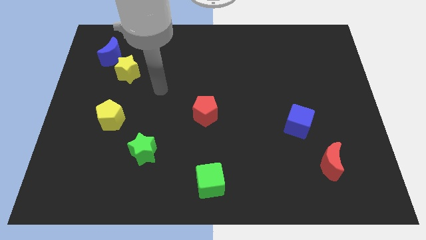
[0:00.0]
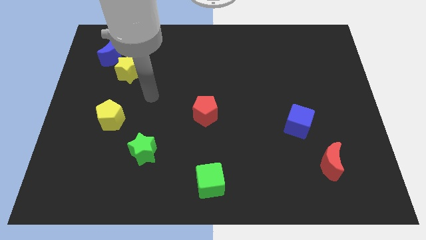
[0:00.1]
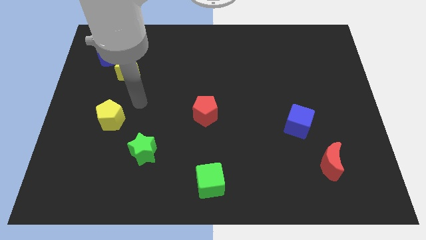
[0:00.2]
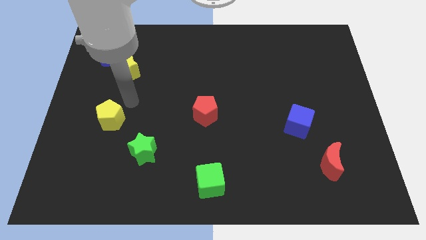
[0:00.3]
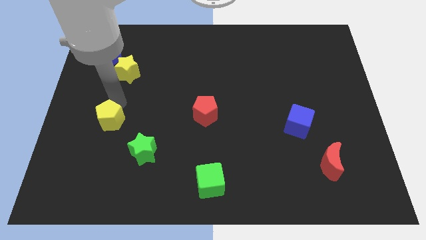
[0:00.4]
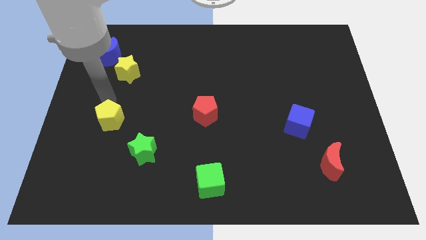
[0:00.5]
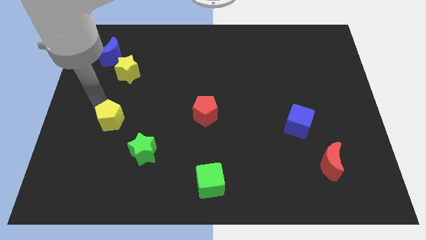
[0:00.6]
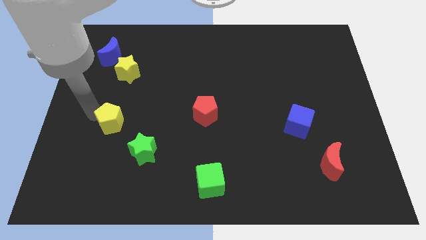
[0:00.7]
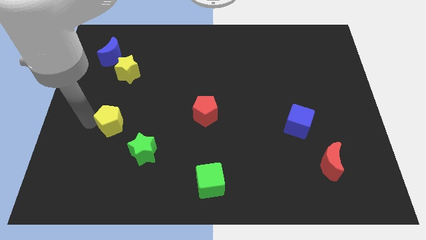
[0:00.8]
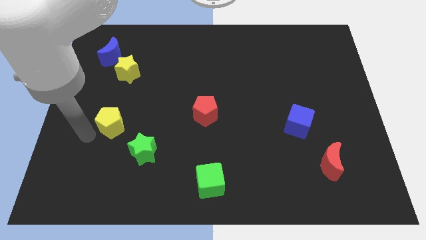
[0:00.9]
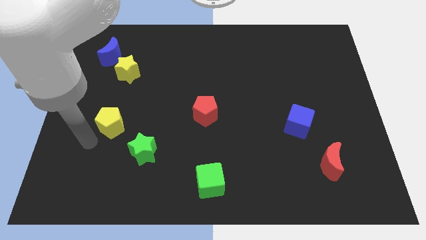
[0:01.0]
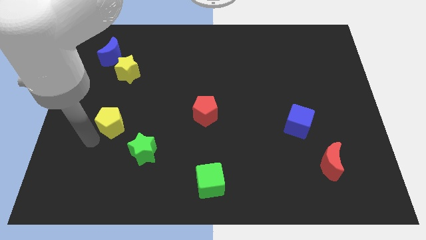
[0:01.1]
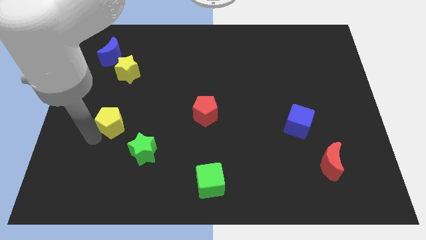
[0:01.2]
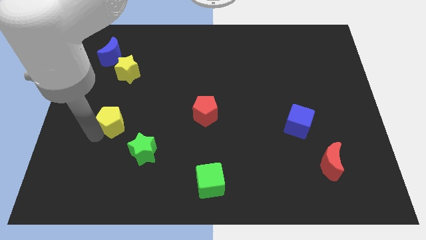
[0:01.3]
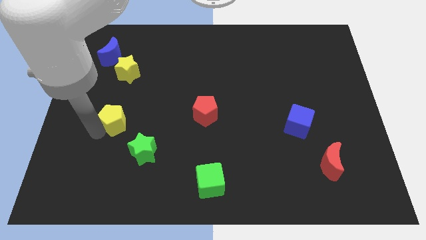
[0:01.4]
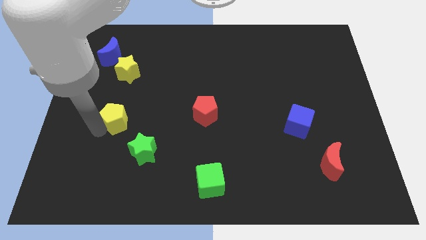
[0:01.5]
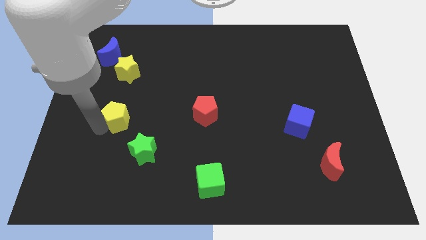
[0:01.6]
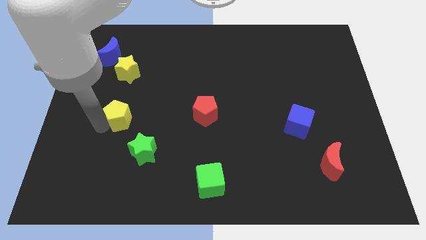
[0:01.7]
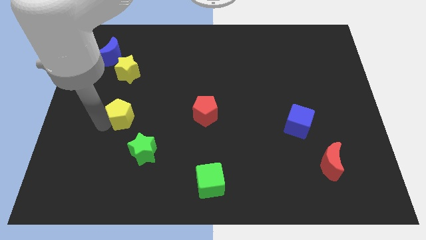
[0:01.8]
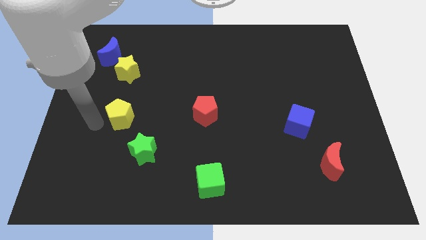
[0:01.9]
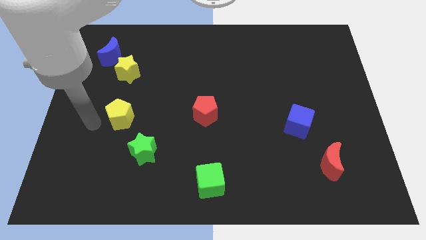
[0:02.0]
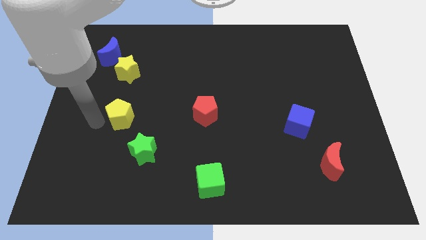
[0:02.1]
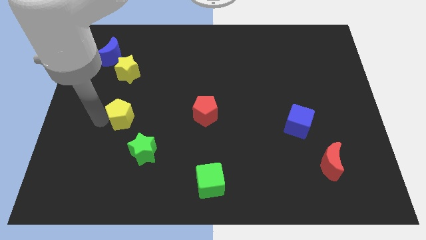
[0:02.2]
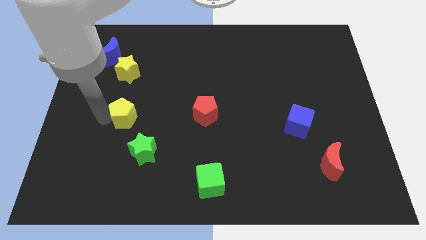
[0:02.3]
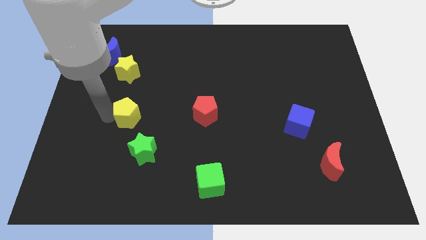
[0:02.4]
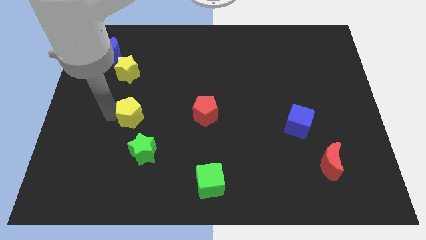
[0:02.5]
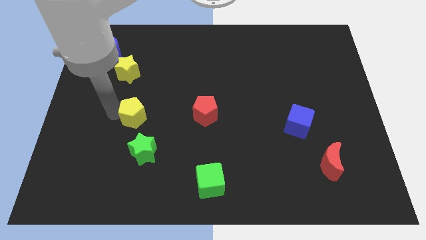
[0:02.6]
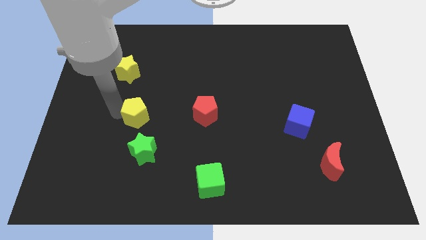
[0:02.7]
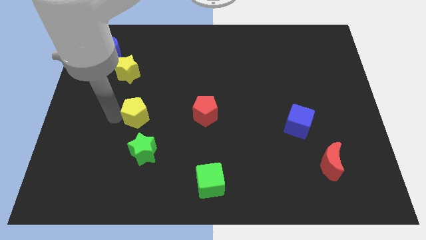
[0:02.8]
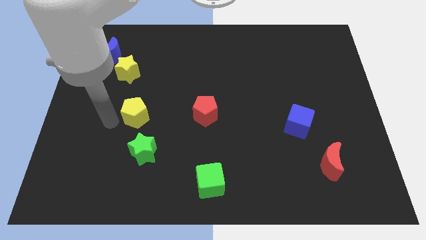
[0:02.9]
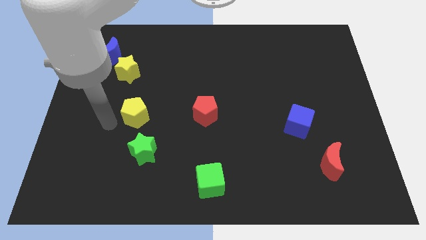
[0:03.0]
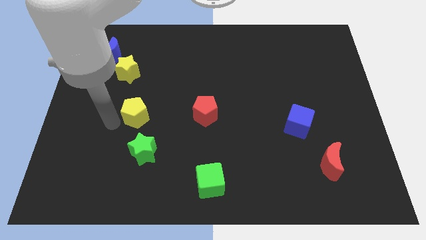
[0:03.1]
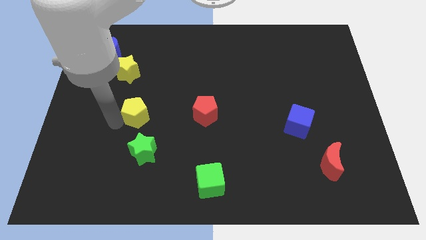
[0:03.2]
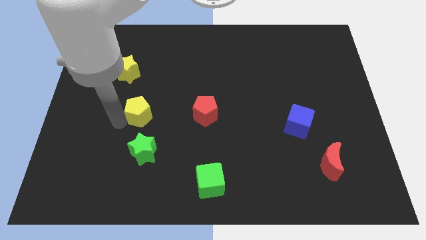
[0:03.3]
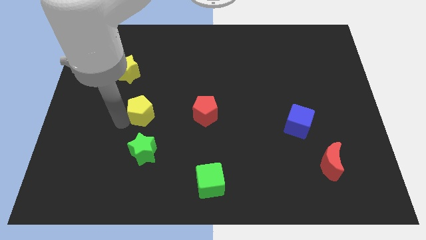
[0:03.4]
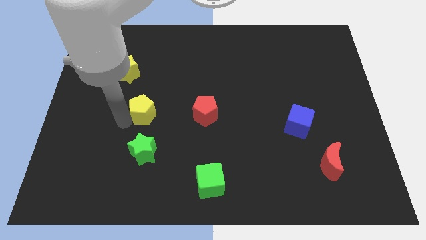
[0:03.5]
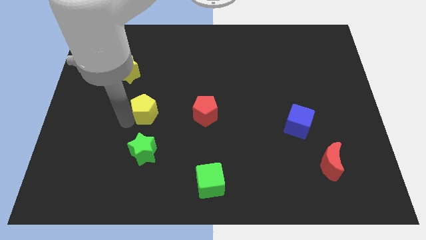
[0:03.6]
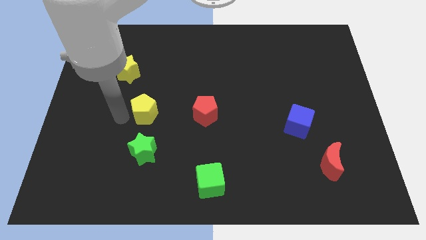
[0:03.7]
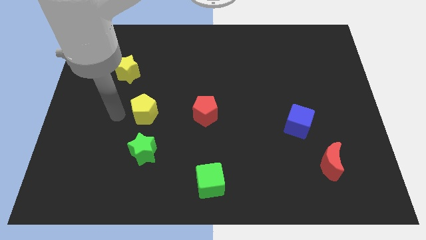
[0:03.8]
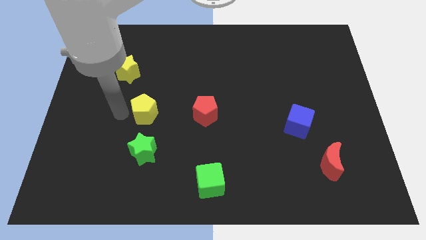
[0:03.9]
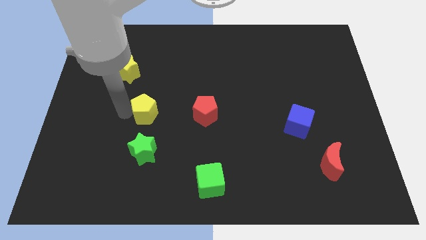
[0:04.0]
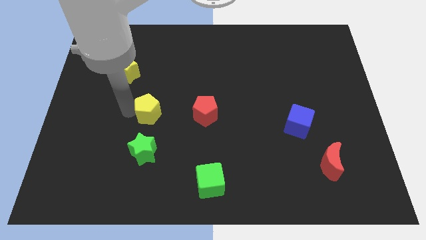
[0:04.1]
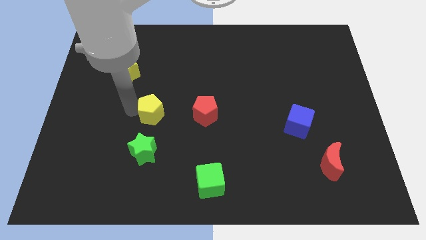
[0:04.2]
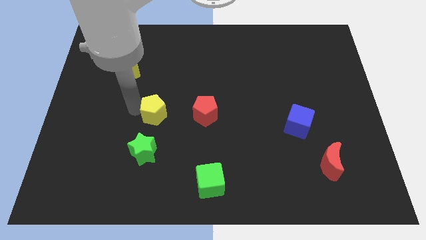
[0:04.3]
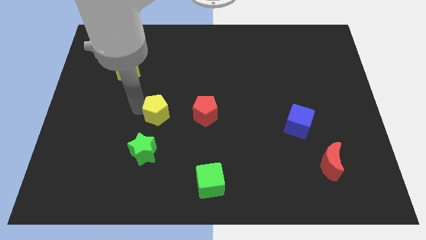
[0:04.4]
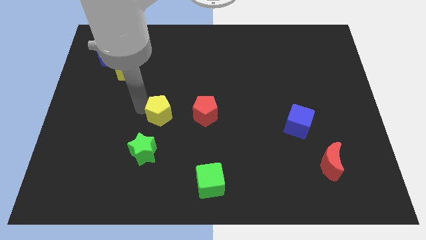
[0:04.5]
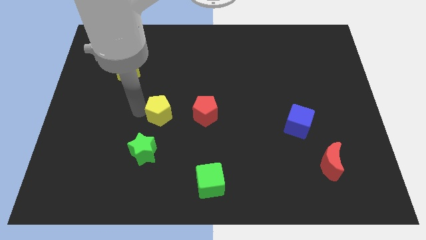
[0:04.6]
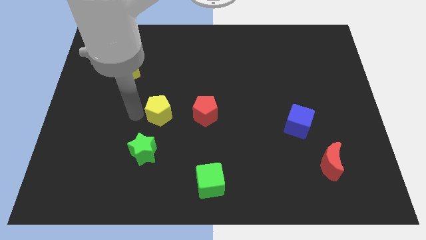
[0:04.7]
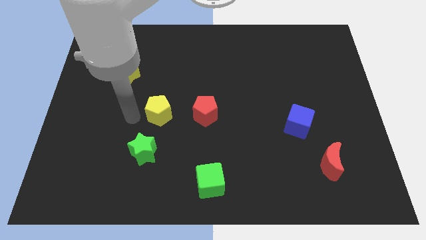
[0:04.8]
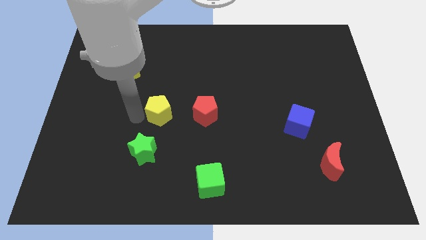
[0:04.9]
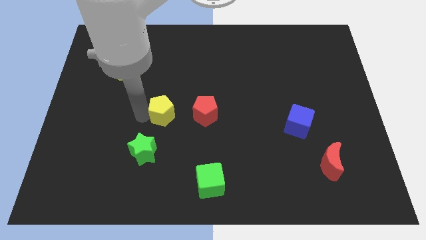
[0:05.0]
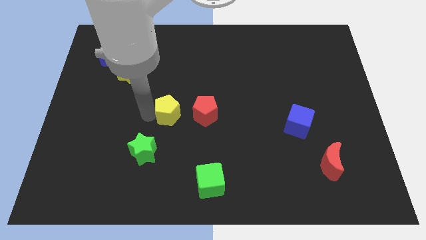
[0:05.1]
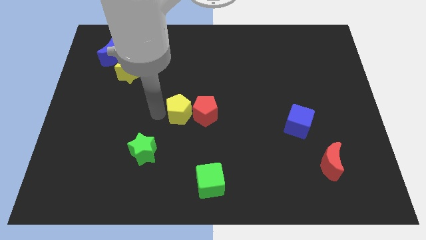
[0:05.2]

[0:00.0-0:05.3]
push the yellow pentagon close to the red pentagon

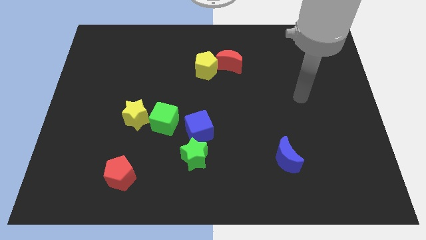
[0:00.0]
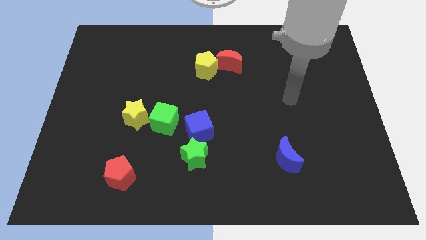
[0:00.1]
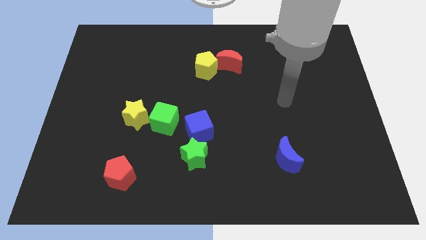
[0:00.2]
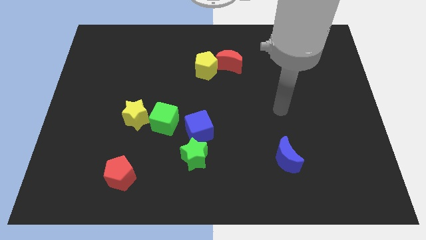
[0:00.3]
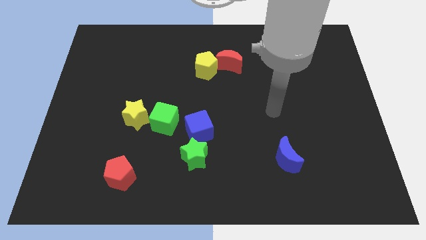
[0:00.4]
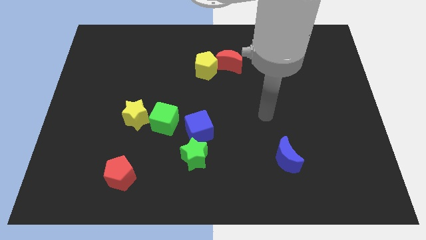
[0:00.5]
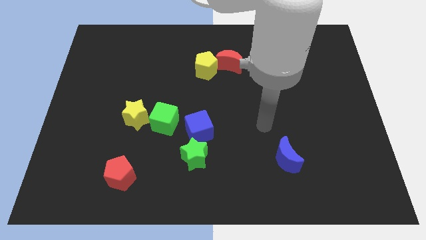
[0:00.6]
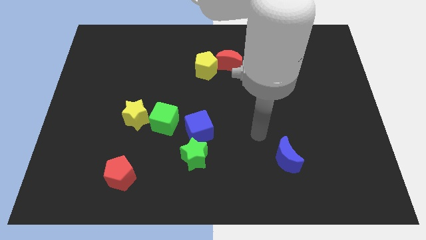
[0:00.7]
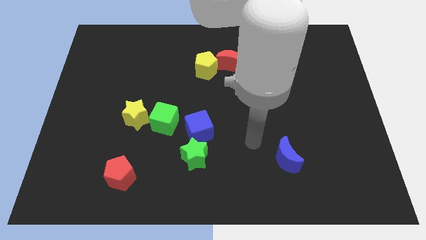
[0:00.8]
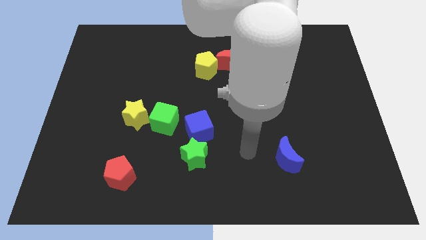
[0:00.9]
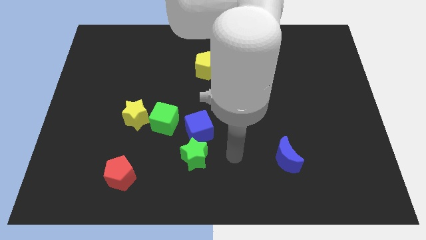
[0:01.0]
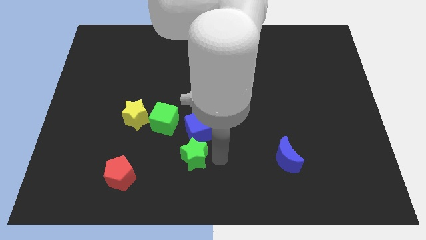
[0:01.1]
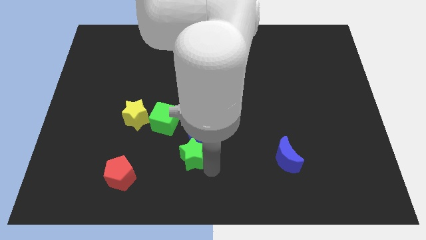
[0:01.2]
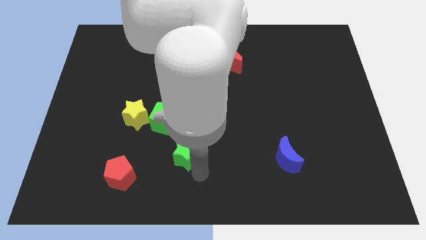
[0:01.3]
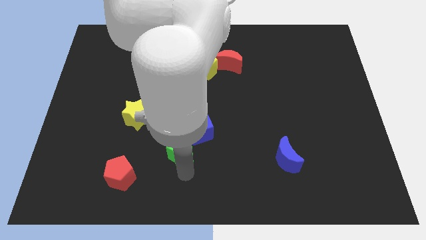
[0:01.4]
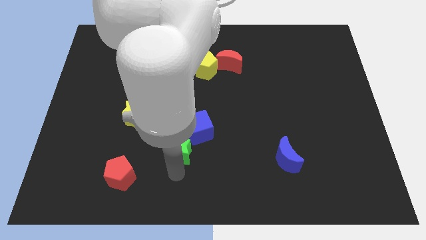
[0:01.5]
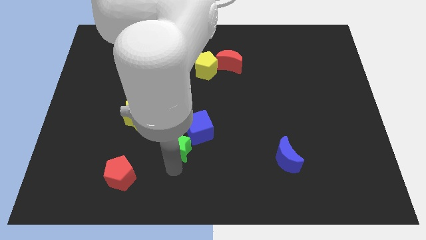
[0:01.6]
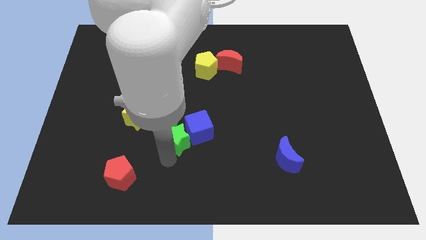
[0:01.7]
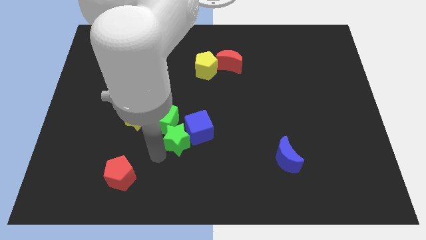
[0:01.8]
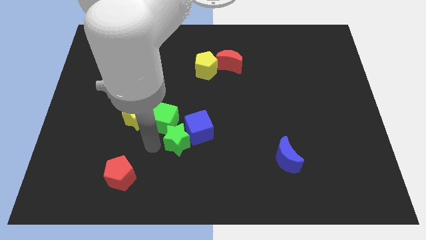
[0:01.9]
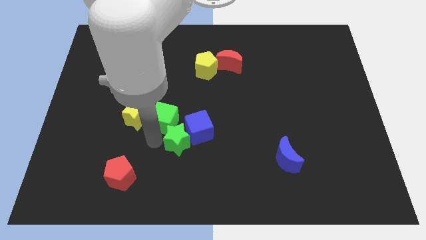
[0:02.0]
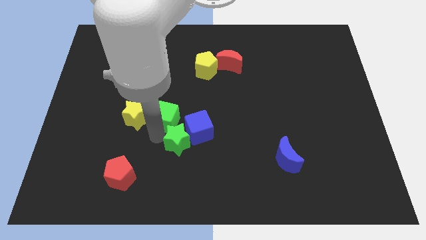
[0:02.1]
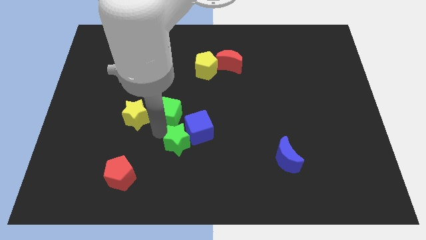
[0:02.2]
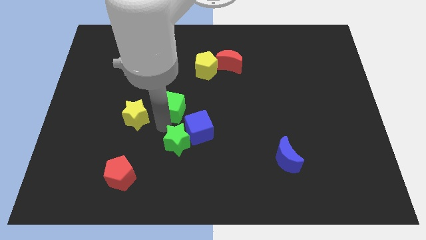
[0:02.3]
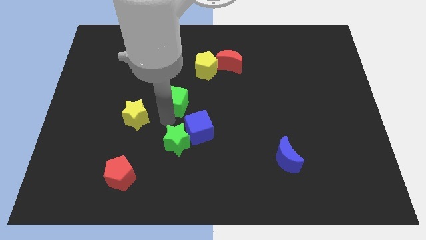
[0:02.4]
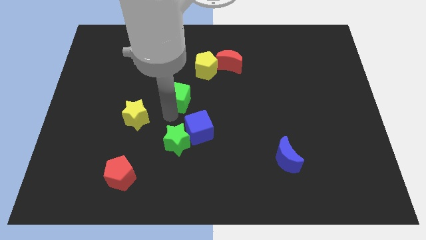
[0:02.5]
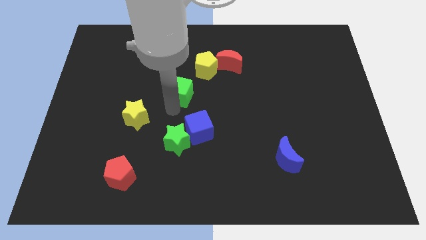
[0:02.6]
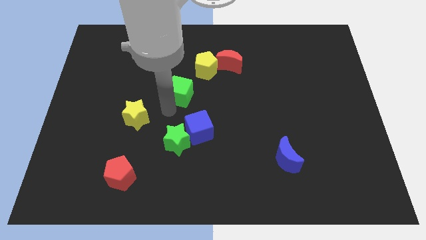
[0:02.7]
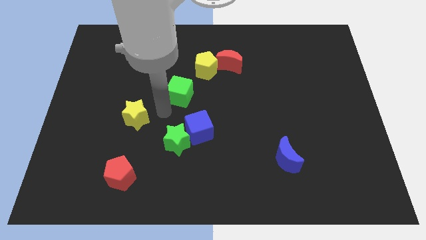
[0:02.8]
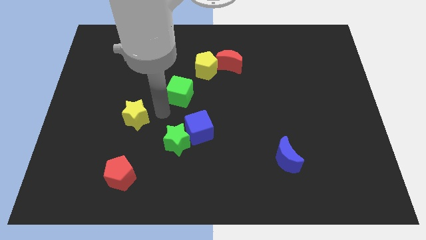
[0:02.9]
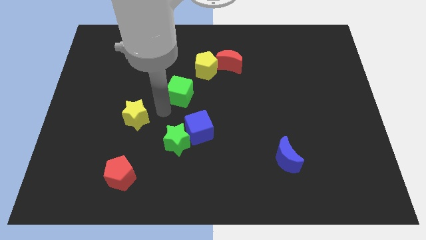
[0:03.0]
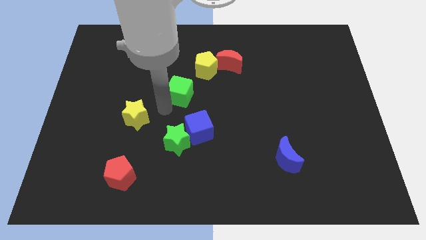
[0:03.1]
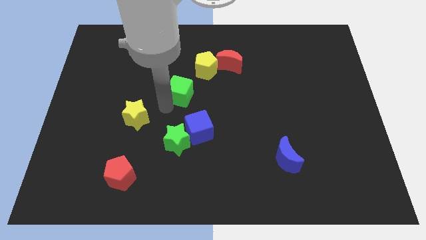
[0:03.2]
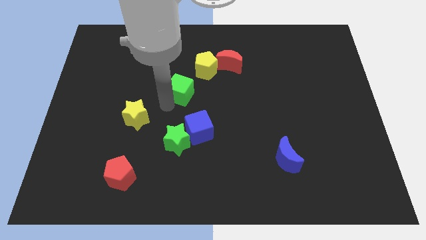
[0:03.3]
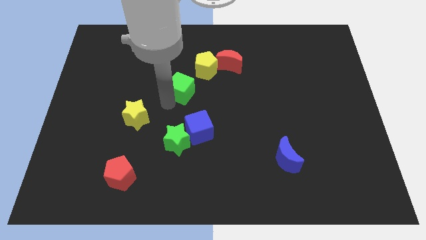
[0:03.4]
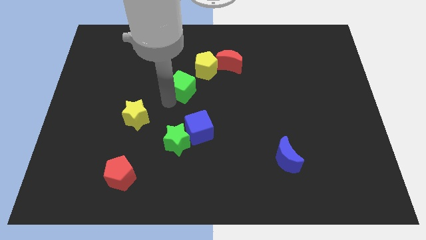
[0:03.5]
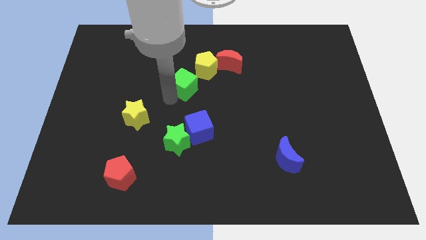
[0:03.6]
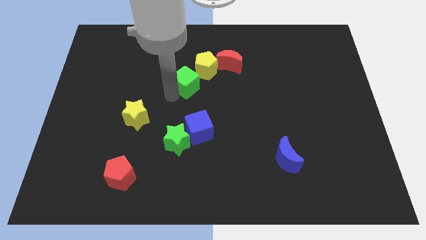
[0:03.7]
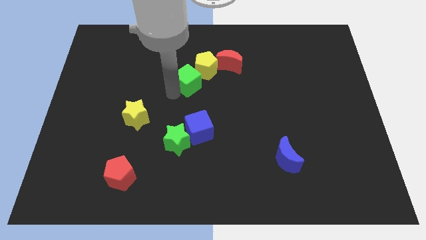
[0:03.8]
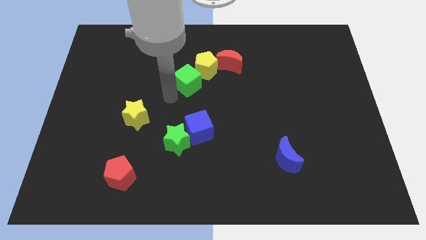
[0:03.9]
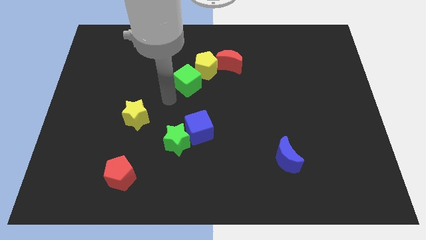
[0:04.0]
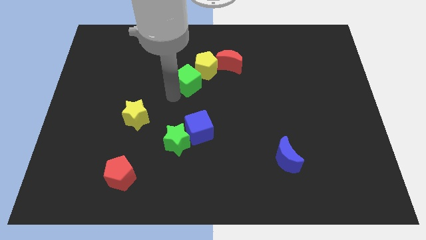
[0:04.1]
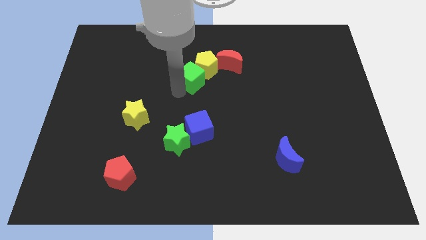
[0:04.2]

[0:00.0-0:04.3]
slide the green cube towards the yellow pentagon
